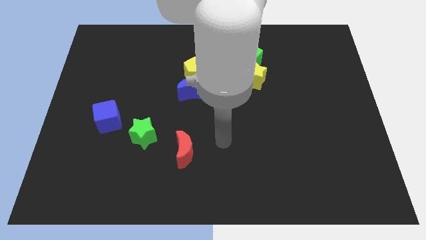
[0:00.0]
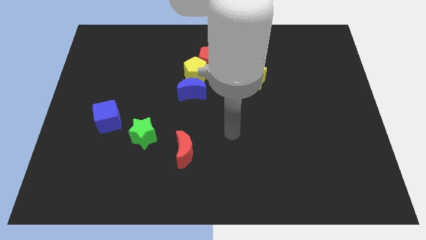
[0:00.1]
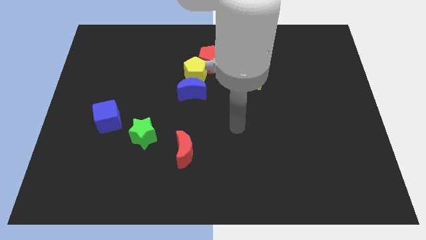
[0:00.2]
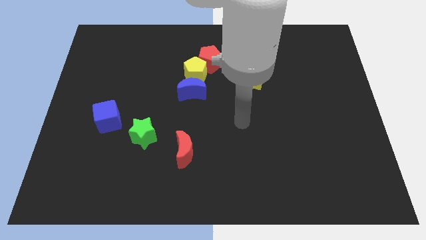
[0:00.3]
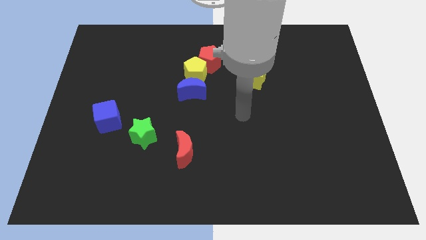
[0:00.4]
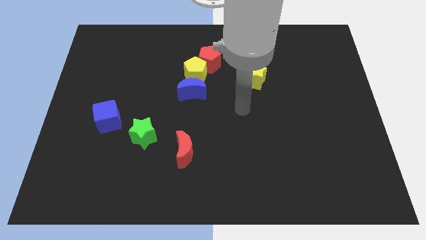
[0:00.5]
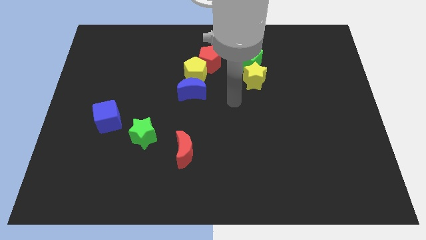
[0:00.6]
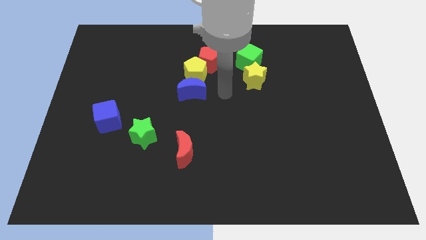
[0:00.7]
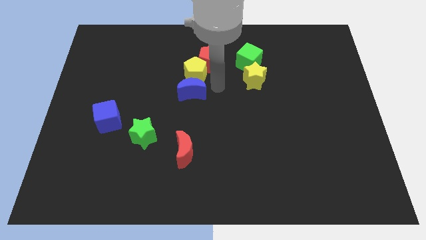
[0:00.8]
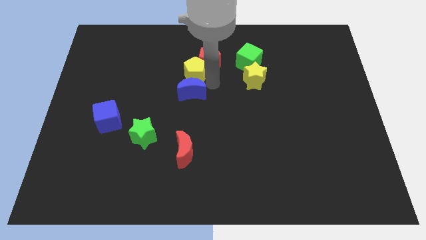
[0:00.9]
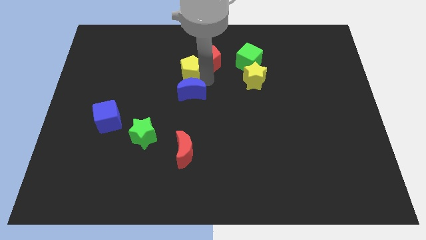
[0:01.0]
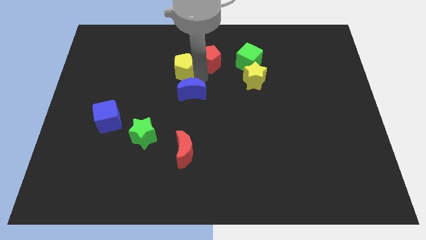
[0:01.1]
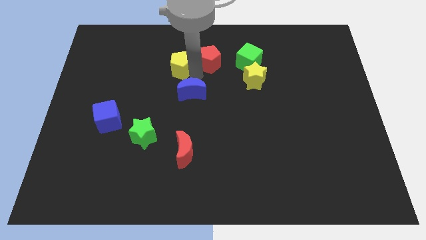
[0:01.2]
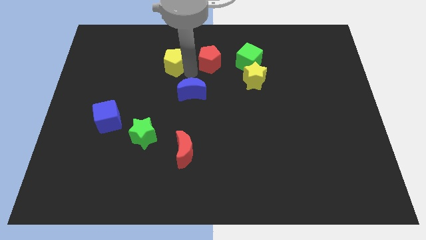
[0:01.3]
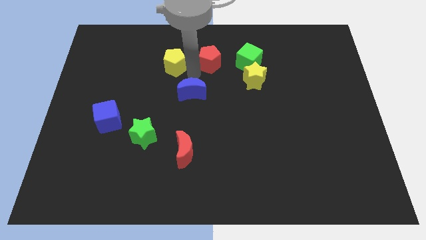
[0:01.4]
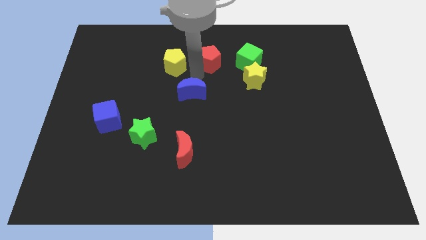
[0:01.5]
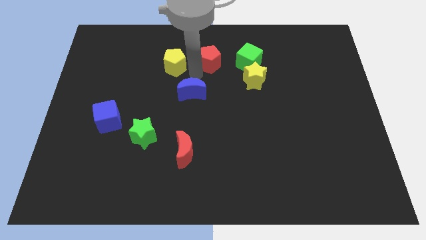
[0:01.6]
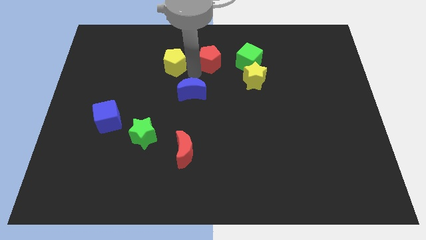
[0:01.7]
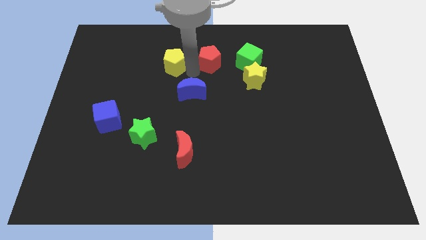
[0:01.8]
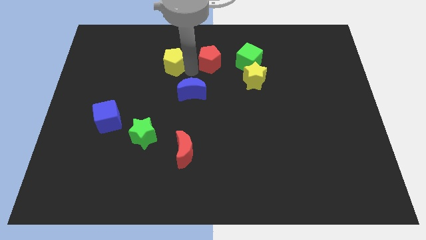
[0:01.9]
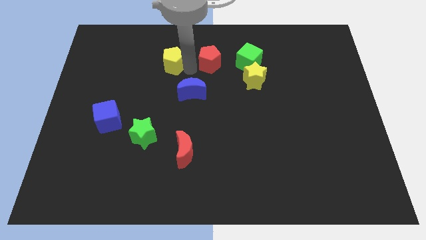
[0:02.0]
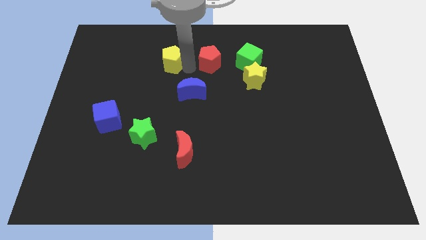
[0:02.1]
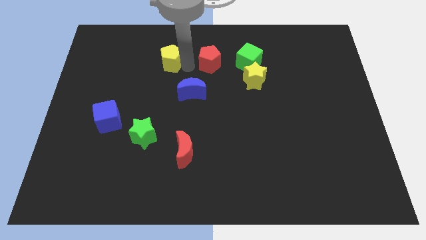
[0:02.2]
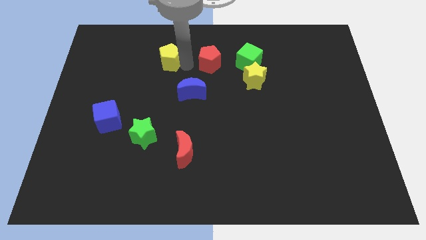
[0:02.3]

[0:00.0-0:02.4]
move the yellow pentagon away from the red pentagon and blue moon

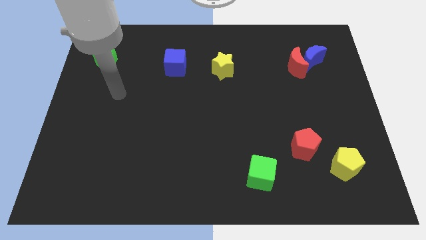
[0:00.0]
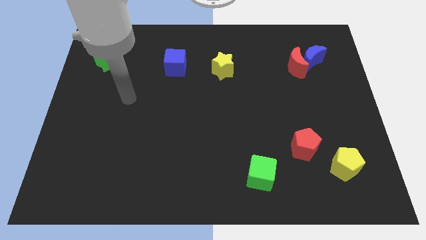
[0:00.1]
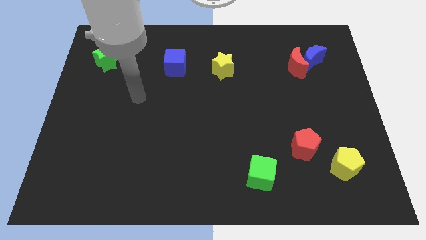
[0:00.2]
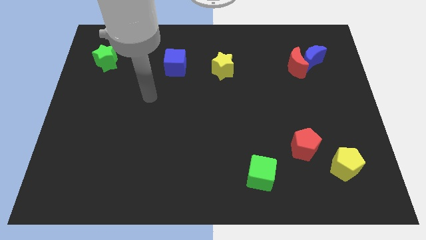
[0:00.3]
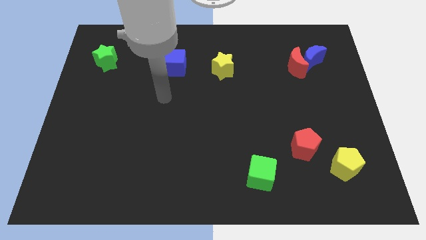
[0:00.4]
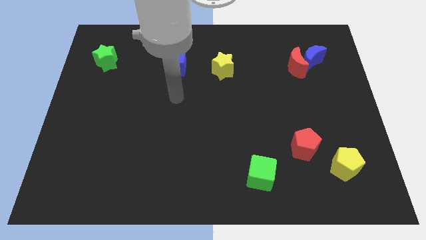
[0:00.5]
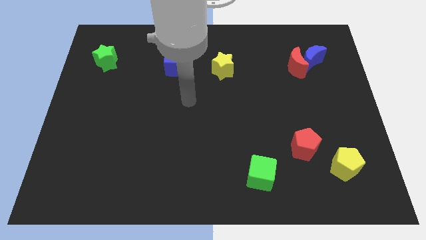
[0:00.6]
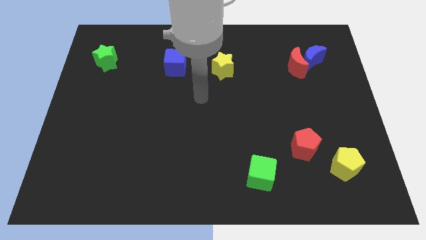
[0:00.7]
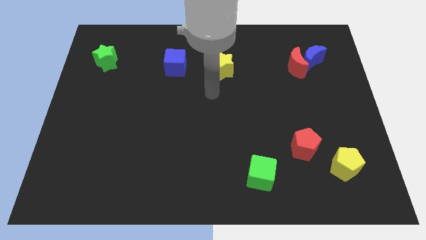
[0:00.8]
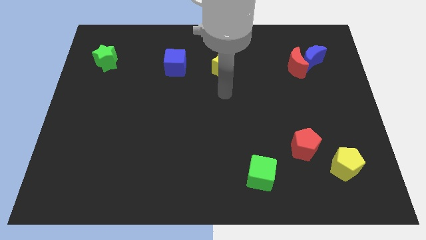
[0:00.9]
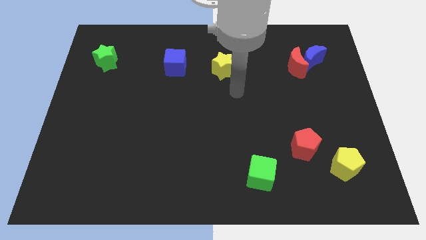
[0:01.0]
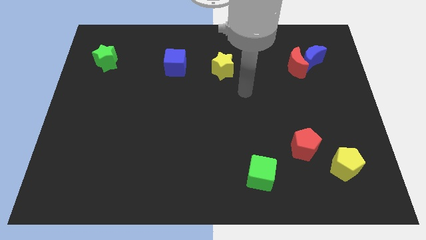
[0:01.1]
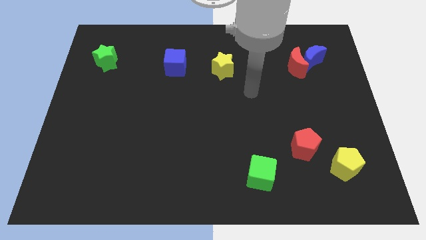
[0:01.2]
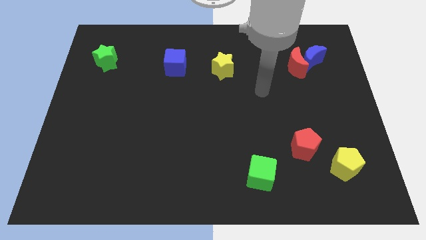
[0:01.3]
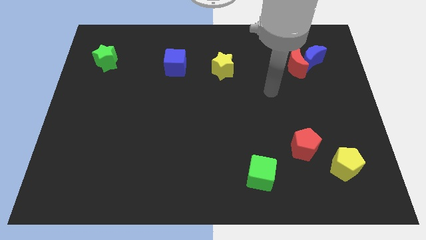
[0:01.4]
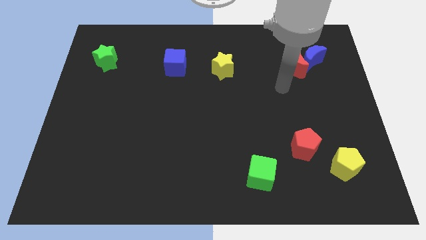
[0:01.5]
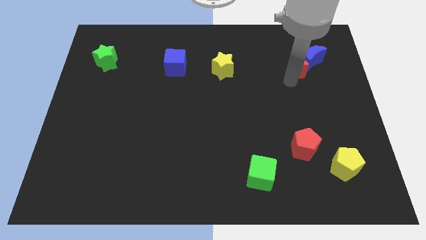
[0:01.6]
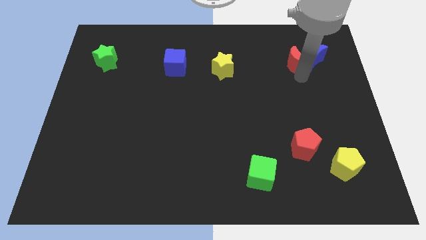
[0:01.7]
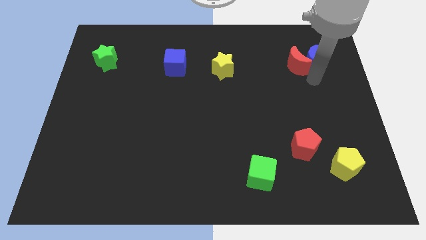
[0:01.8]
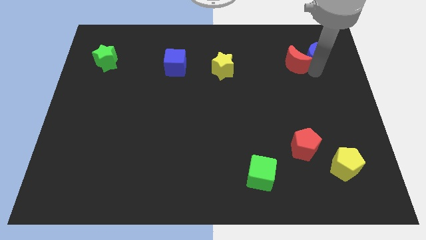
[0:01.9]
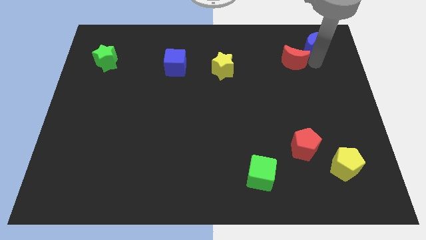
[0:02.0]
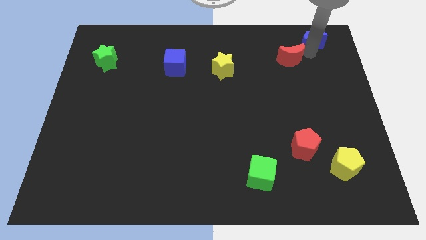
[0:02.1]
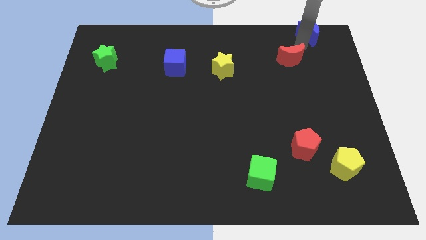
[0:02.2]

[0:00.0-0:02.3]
move the red moon away from the blue moon

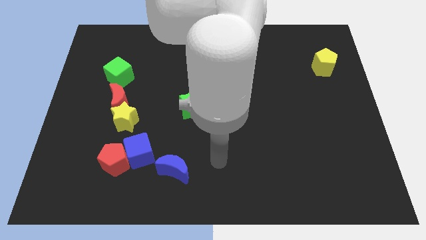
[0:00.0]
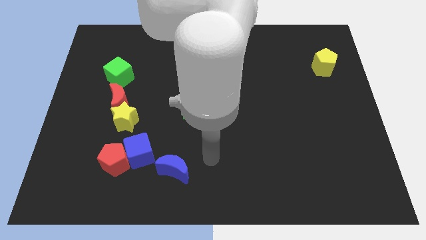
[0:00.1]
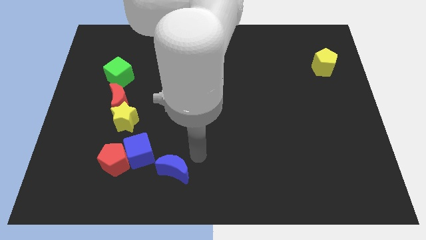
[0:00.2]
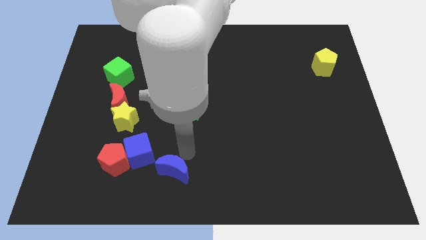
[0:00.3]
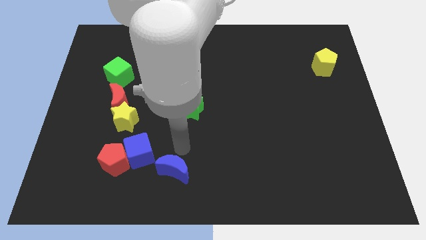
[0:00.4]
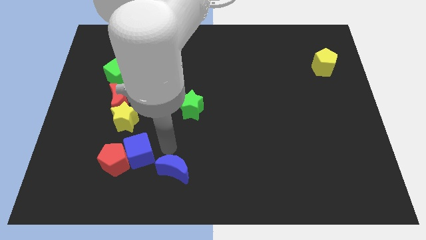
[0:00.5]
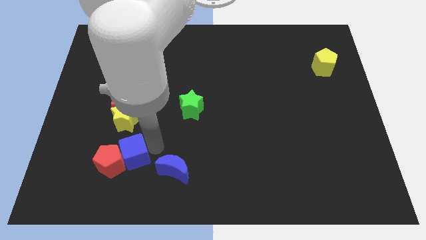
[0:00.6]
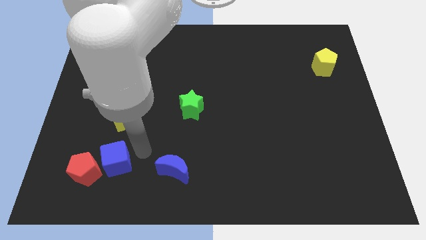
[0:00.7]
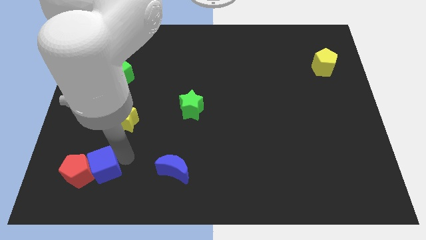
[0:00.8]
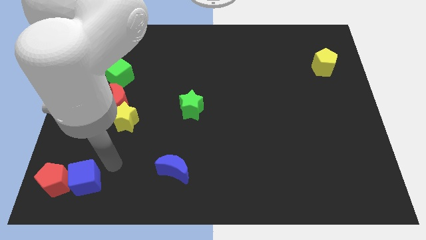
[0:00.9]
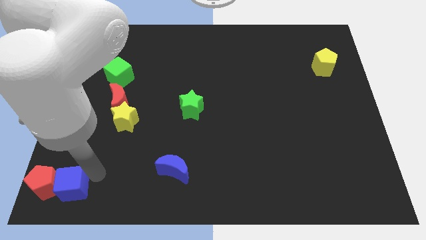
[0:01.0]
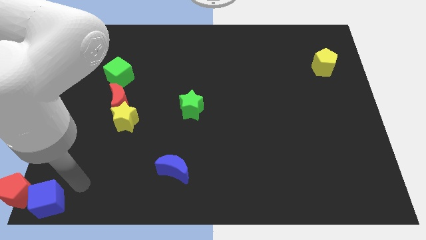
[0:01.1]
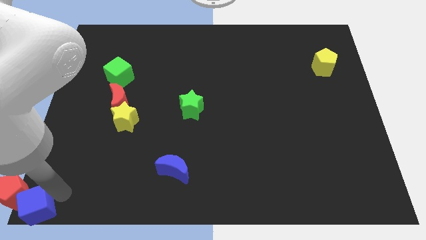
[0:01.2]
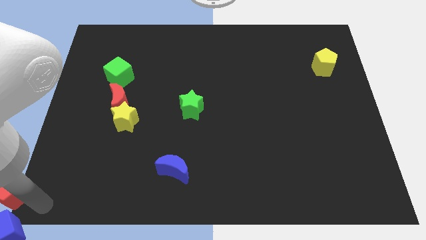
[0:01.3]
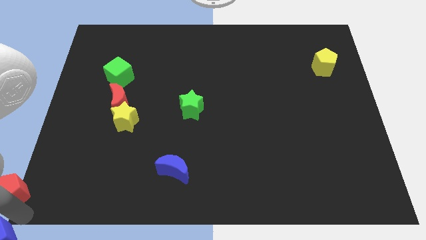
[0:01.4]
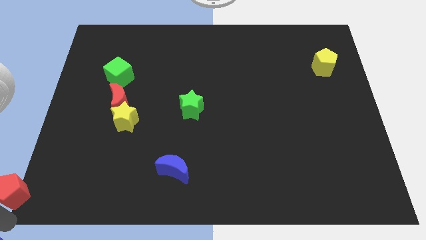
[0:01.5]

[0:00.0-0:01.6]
separate the red pentagon from the blue cube

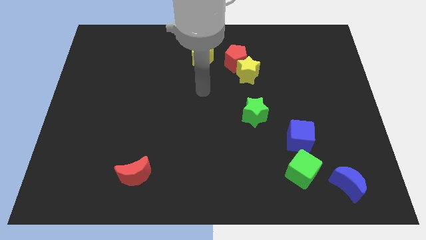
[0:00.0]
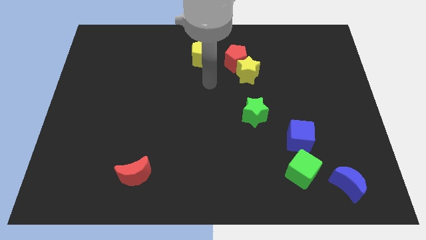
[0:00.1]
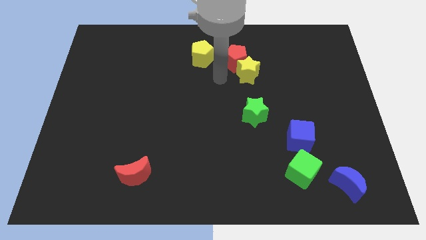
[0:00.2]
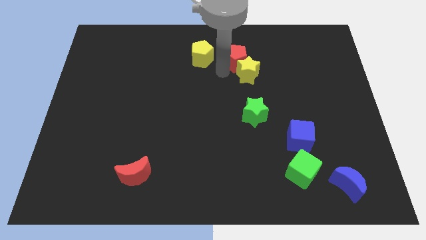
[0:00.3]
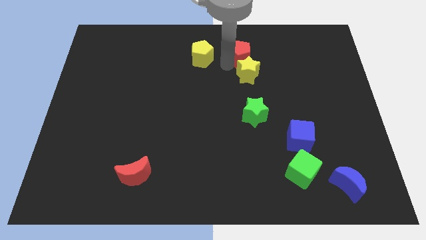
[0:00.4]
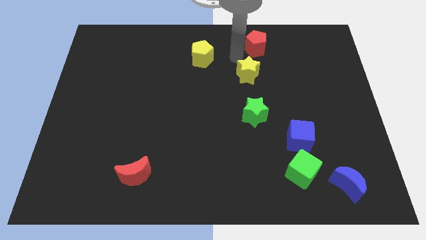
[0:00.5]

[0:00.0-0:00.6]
pull the yellow star apart from the red pentagon

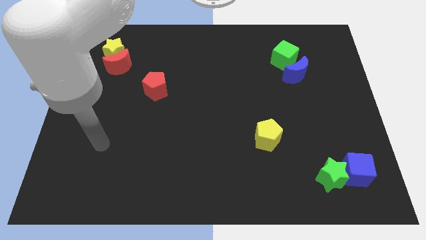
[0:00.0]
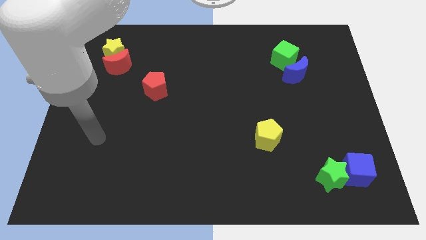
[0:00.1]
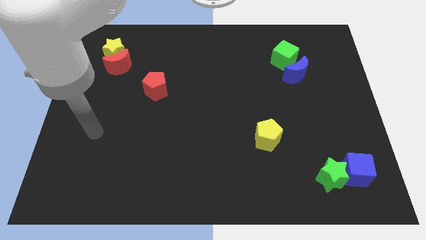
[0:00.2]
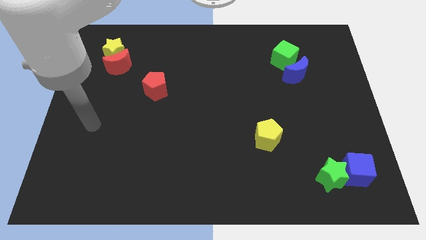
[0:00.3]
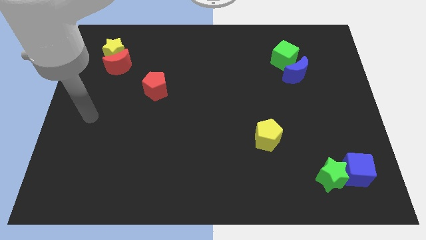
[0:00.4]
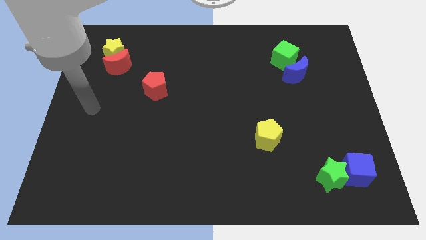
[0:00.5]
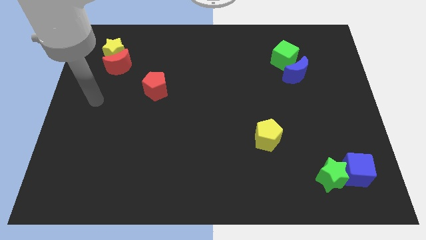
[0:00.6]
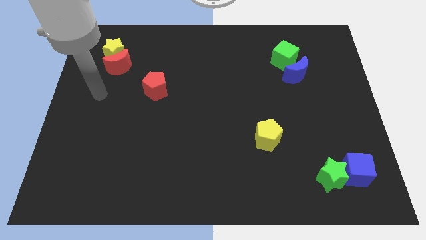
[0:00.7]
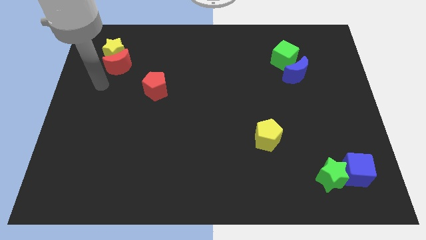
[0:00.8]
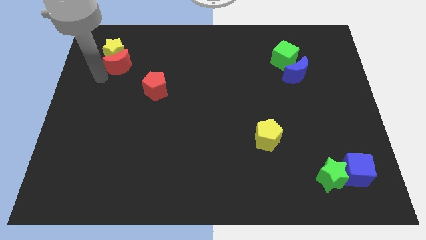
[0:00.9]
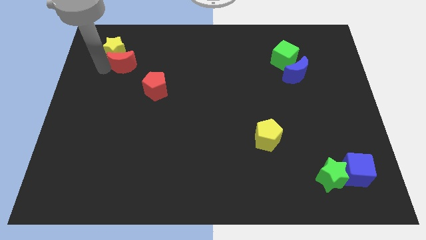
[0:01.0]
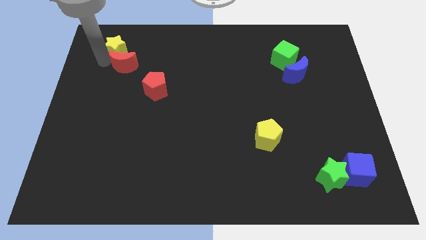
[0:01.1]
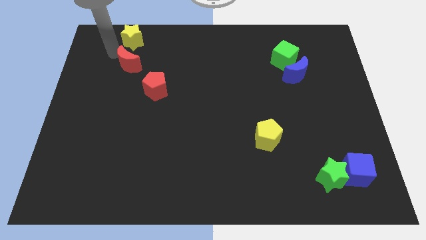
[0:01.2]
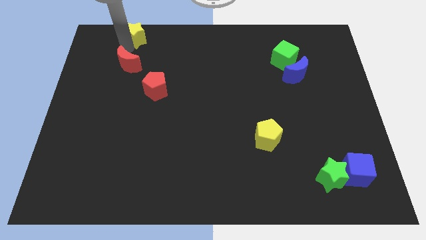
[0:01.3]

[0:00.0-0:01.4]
separate the red moon from the yellow star

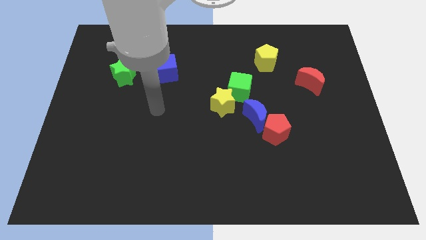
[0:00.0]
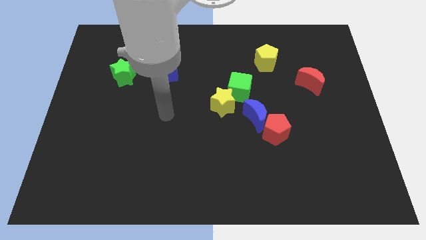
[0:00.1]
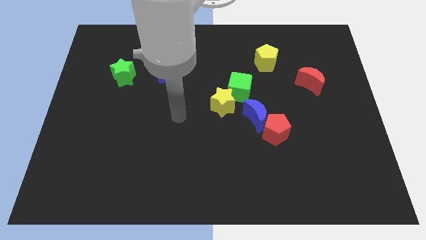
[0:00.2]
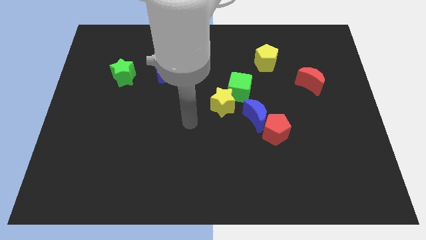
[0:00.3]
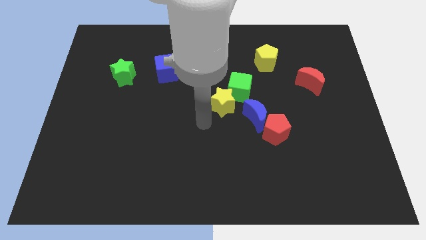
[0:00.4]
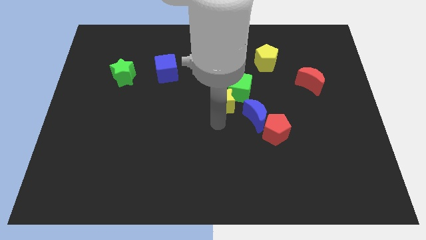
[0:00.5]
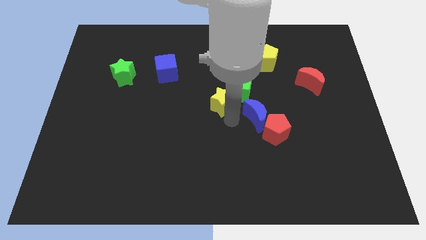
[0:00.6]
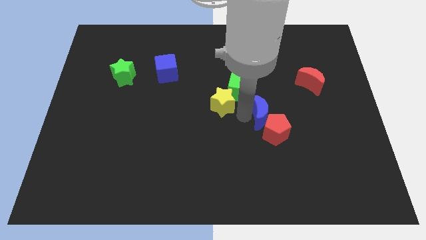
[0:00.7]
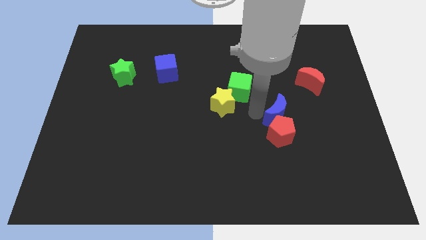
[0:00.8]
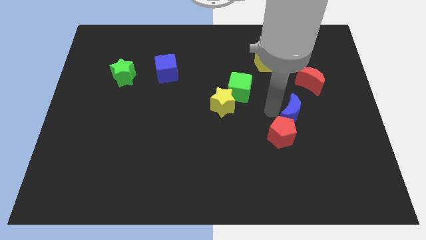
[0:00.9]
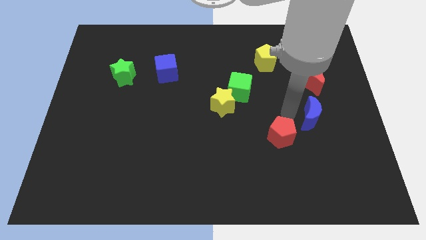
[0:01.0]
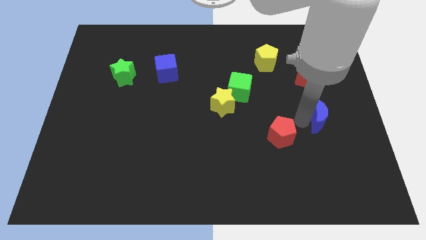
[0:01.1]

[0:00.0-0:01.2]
move the red pentagon away from the blue moon
